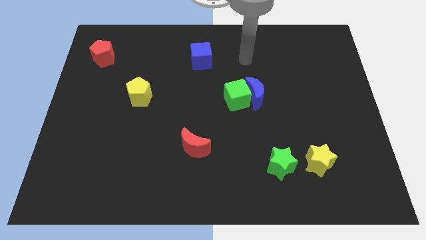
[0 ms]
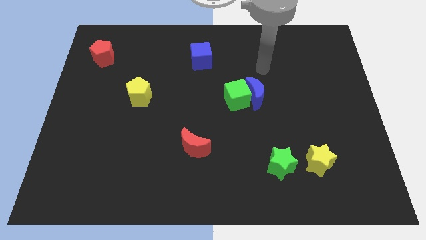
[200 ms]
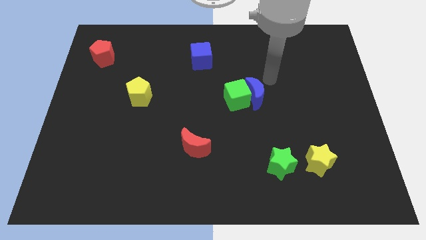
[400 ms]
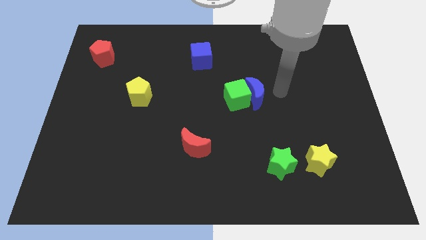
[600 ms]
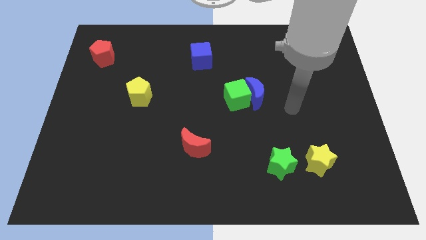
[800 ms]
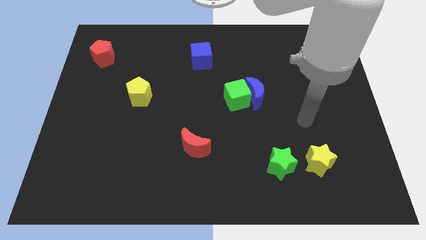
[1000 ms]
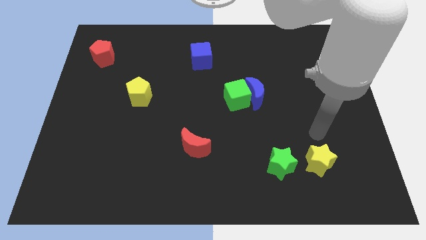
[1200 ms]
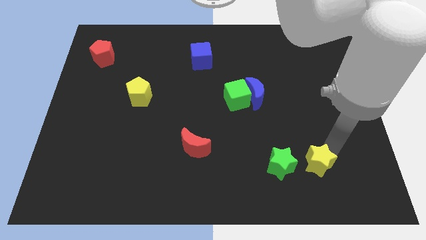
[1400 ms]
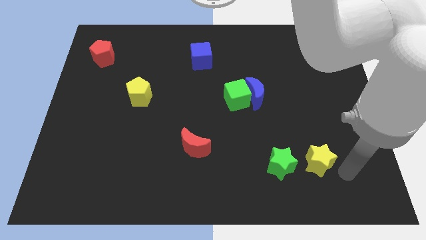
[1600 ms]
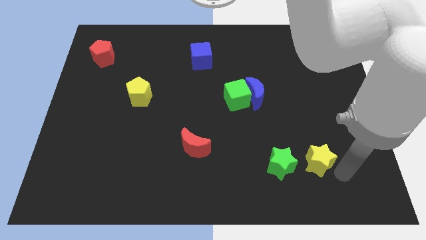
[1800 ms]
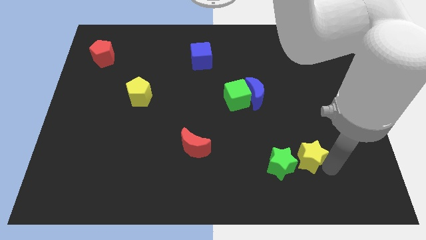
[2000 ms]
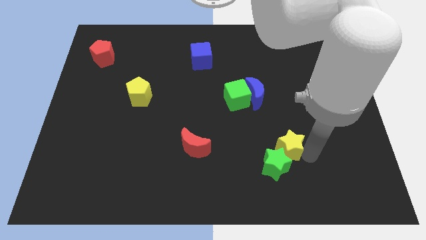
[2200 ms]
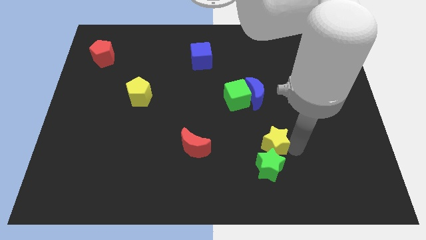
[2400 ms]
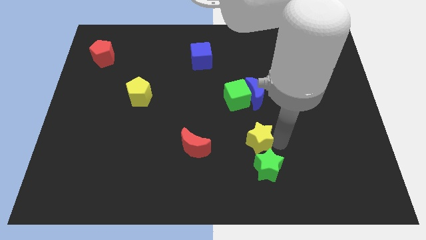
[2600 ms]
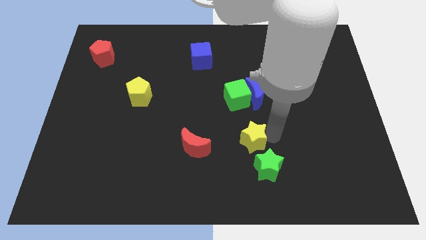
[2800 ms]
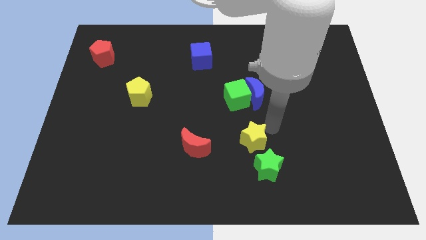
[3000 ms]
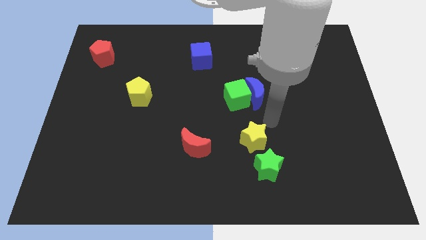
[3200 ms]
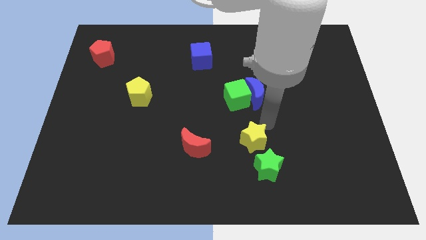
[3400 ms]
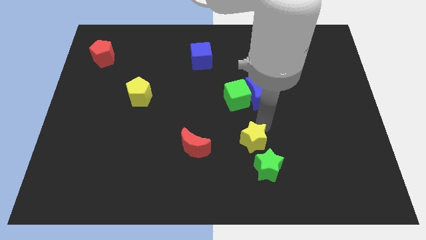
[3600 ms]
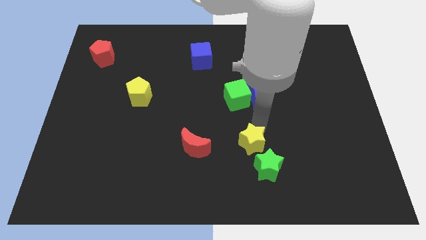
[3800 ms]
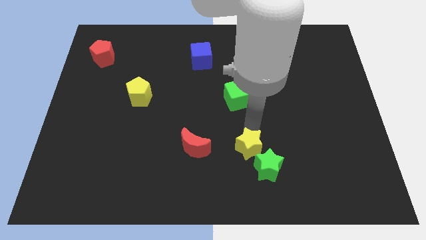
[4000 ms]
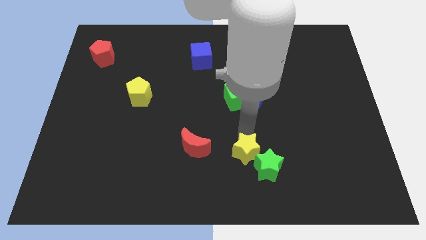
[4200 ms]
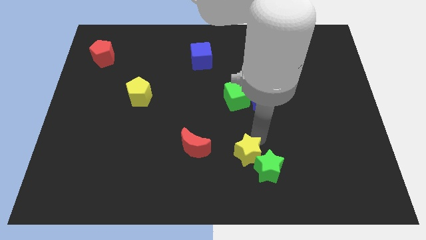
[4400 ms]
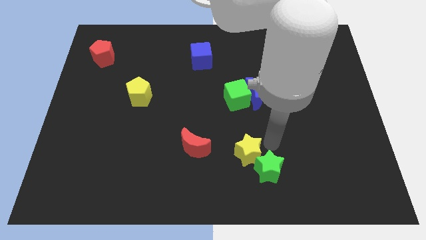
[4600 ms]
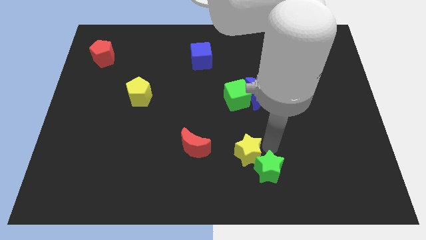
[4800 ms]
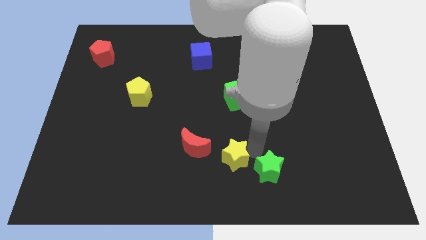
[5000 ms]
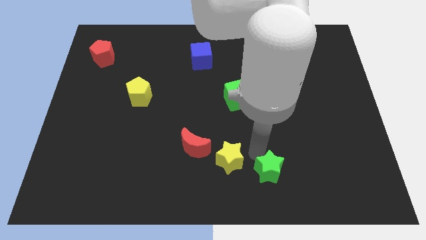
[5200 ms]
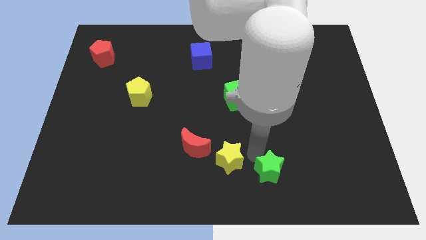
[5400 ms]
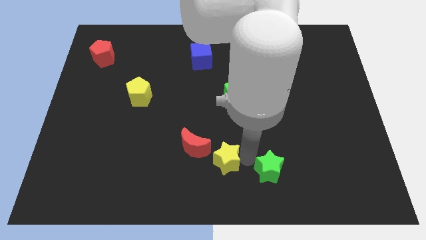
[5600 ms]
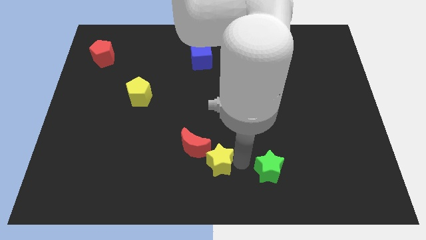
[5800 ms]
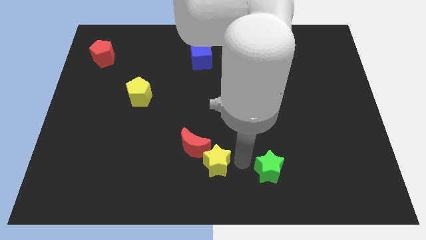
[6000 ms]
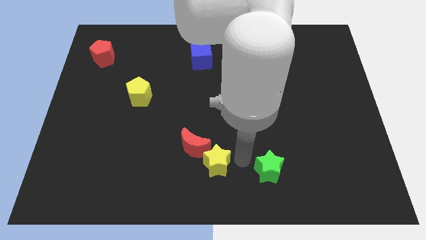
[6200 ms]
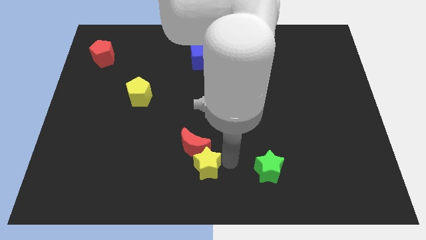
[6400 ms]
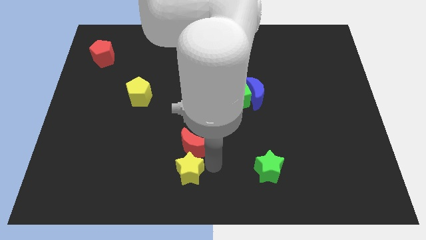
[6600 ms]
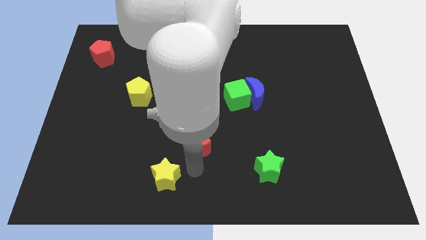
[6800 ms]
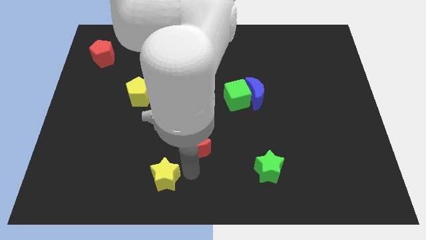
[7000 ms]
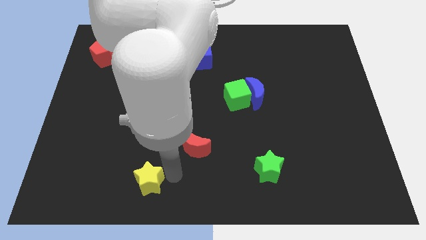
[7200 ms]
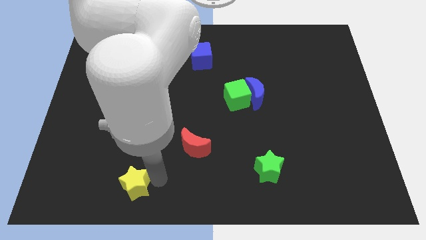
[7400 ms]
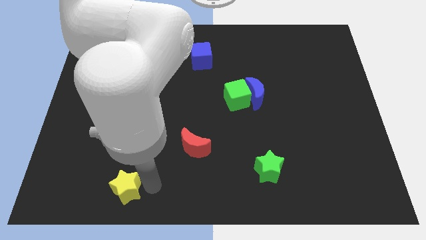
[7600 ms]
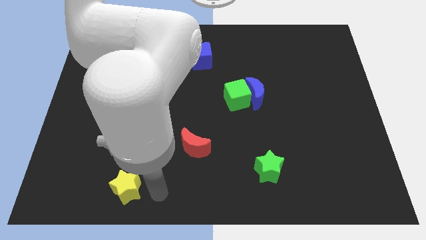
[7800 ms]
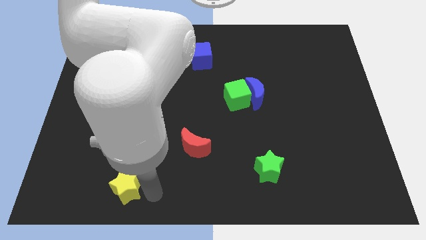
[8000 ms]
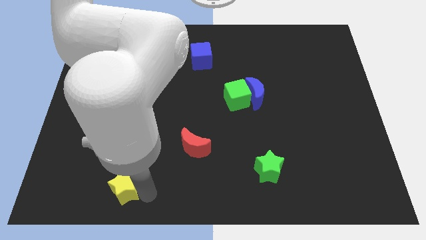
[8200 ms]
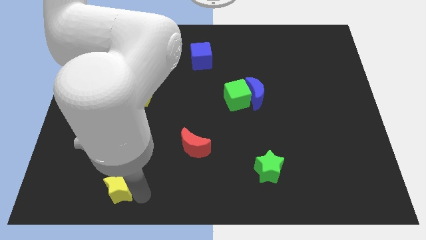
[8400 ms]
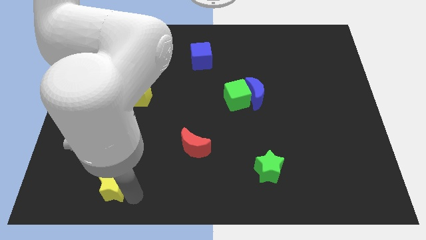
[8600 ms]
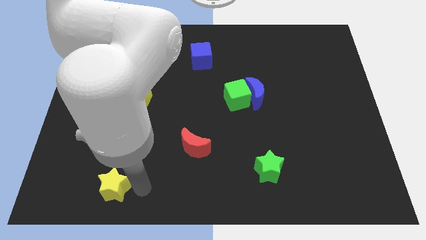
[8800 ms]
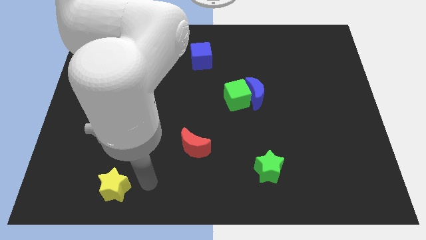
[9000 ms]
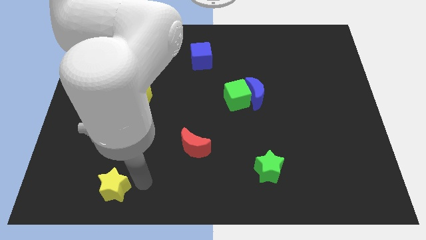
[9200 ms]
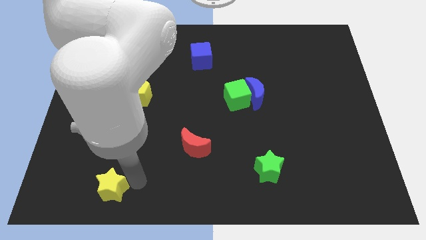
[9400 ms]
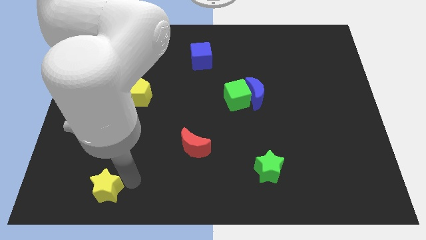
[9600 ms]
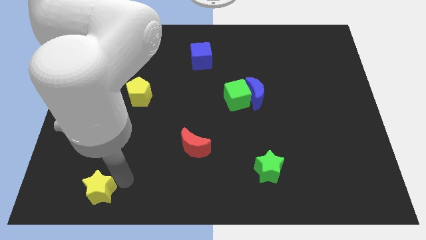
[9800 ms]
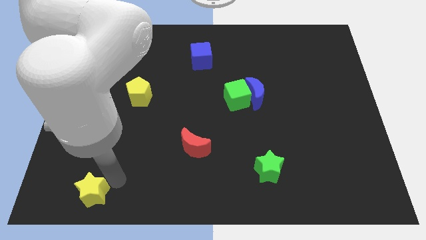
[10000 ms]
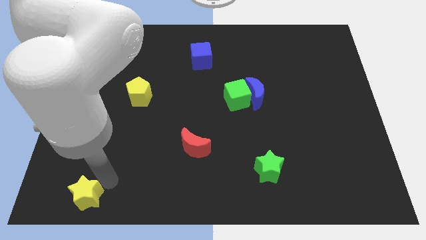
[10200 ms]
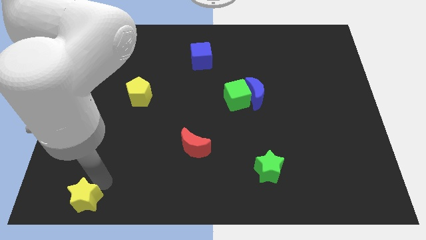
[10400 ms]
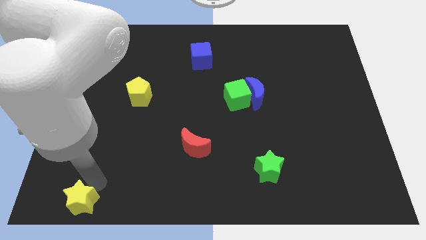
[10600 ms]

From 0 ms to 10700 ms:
put the yellow star to the bottom left corner
